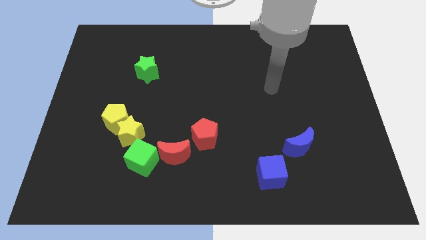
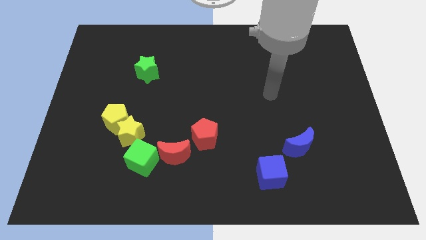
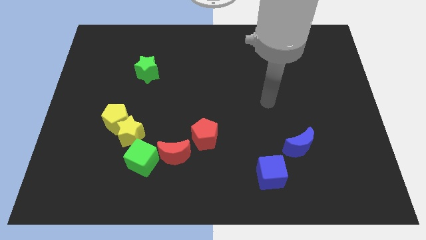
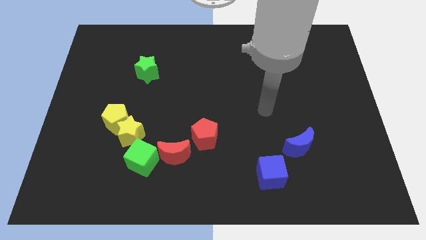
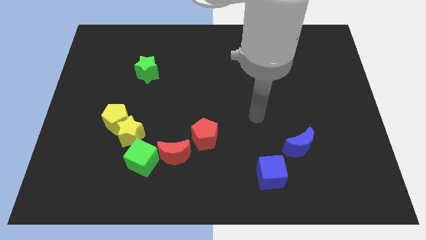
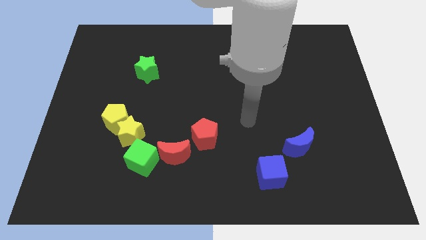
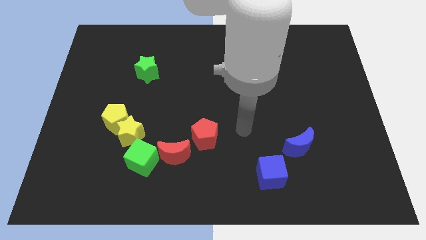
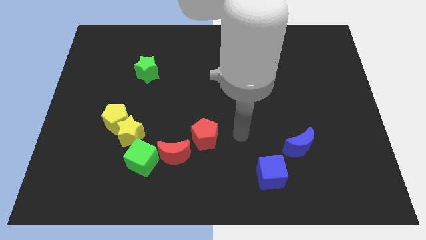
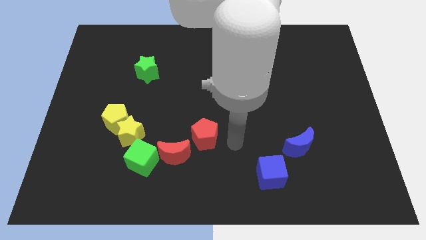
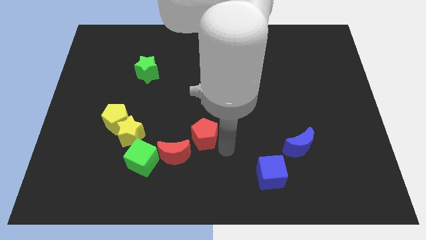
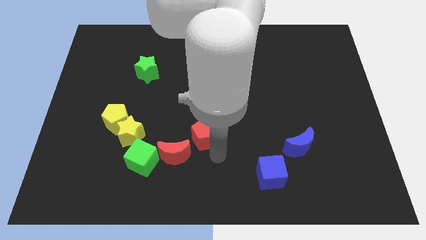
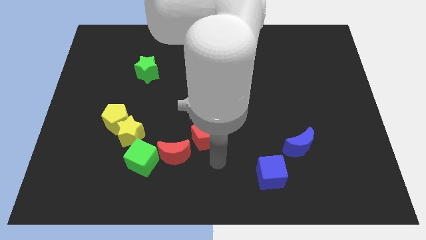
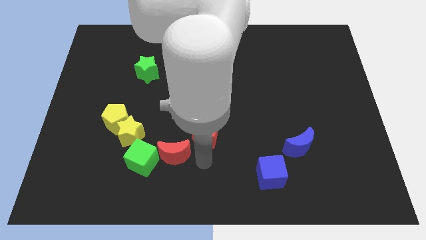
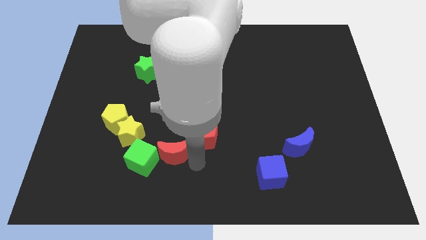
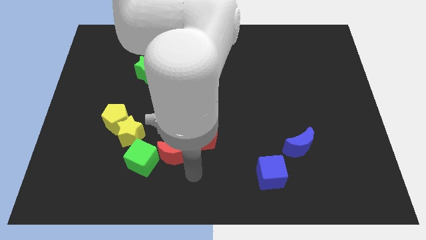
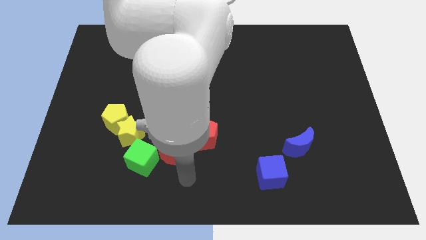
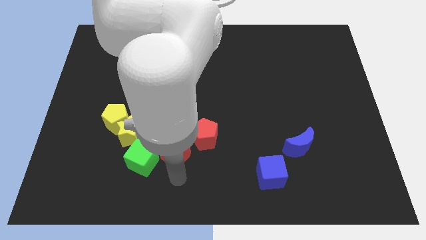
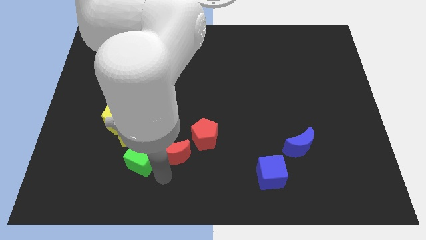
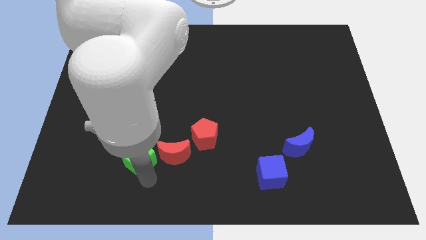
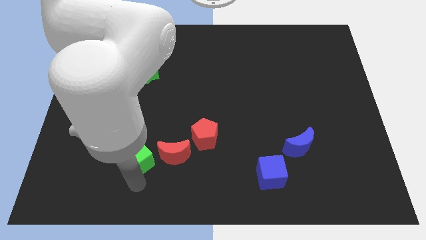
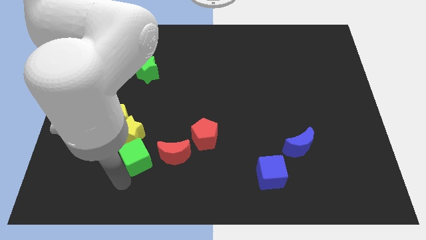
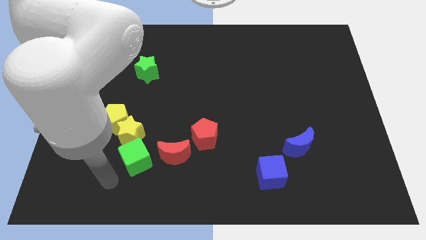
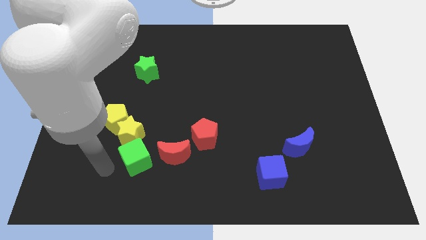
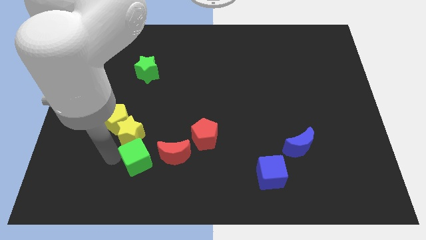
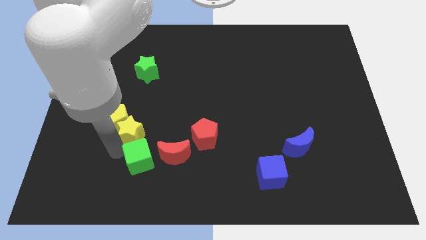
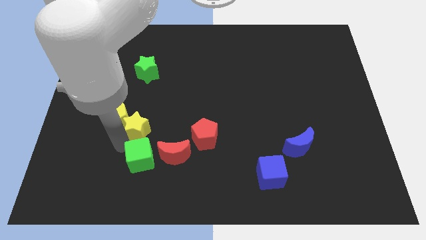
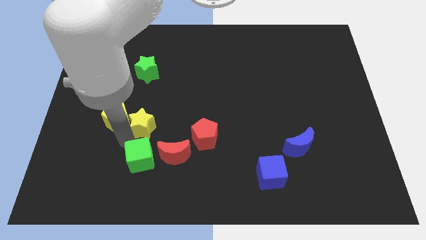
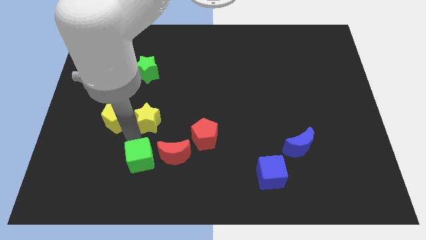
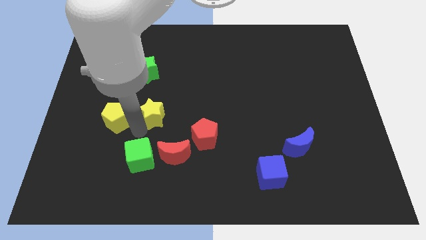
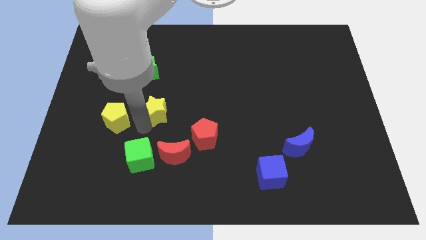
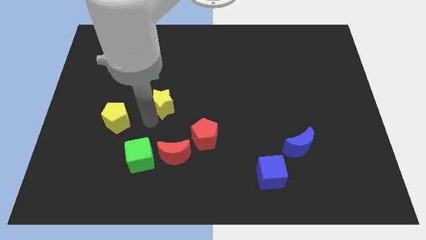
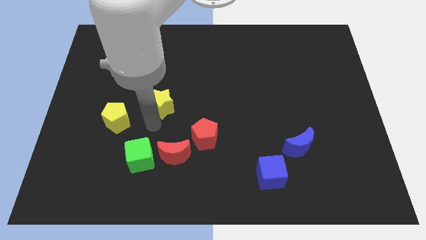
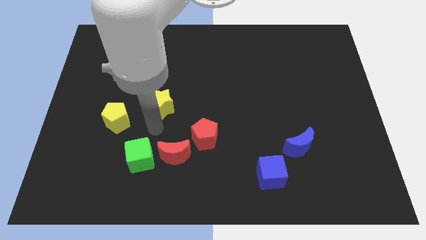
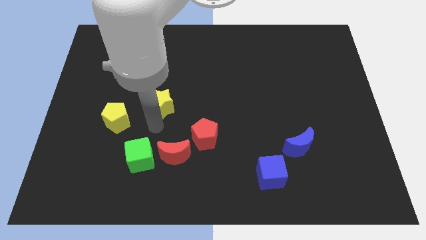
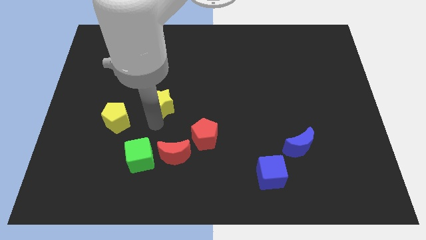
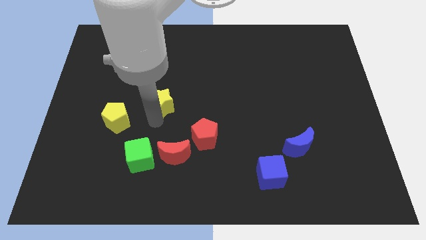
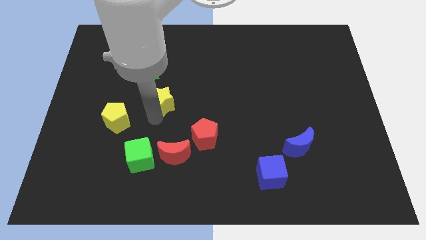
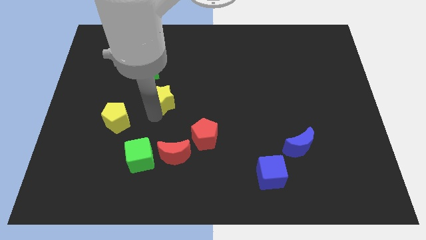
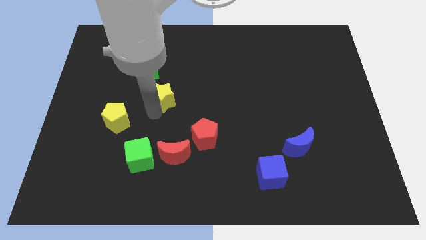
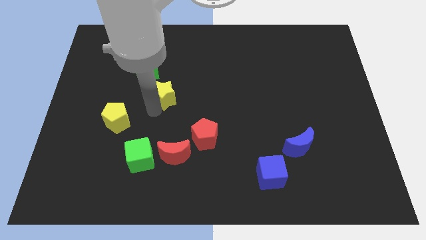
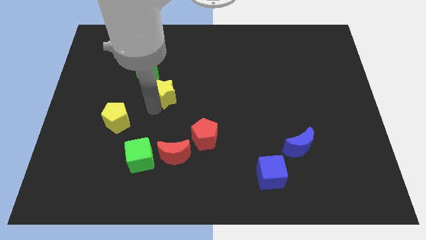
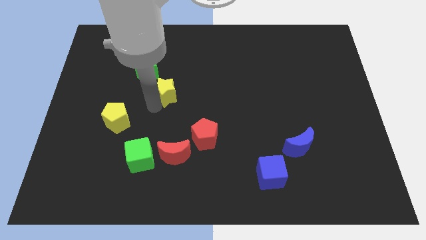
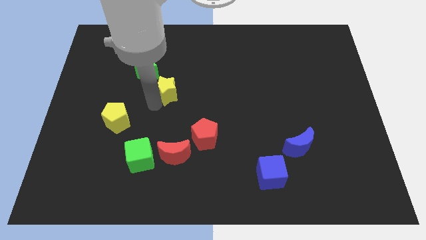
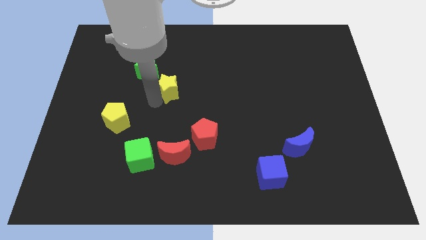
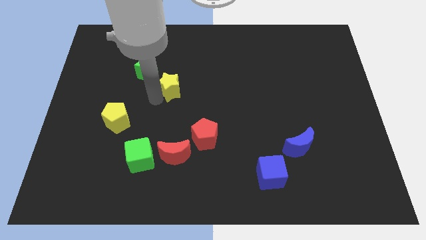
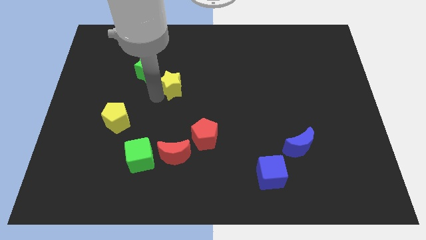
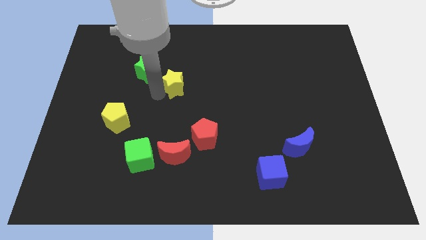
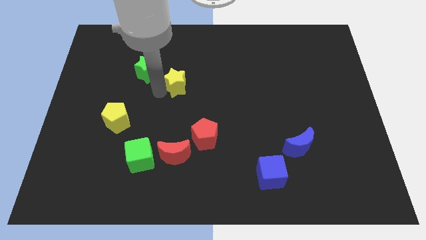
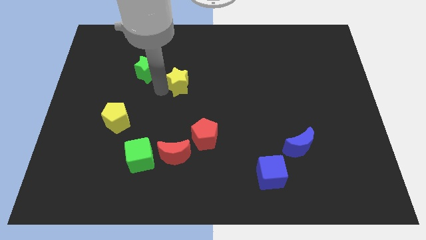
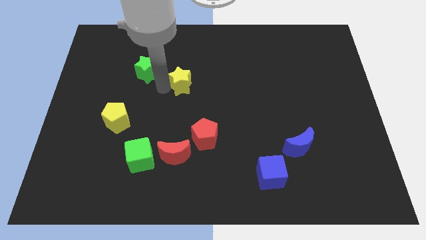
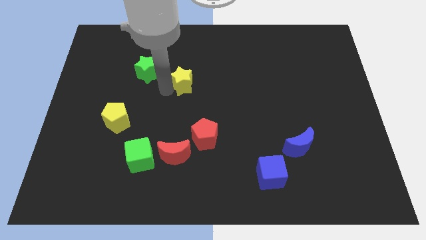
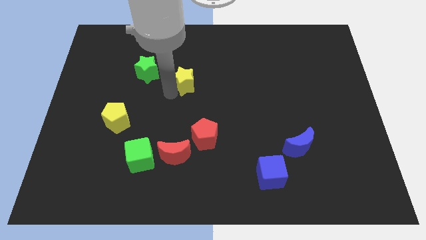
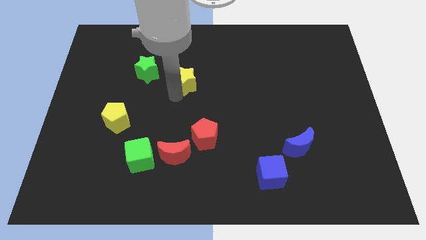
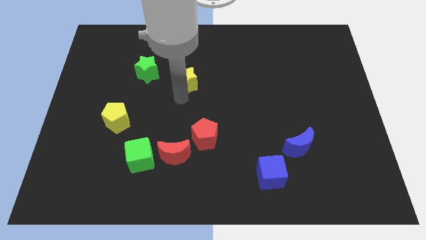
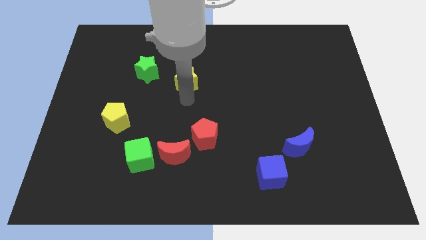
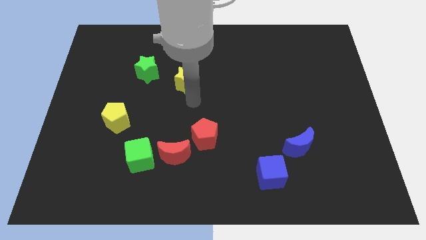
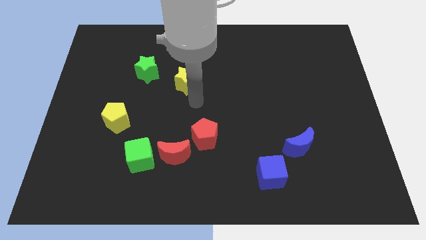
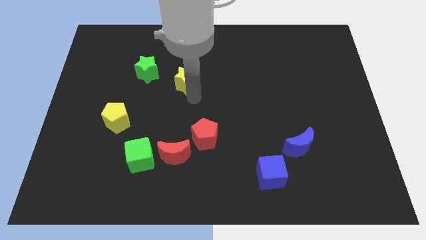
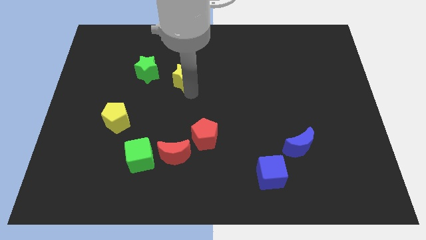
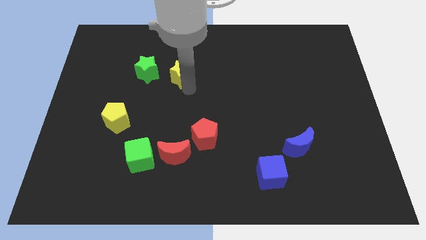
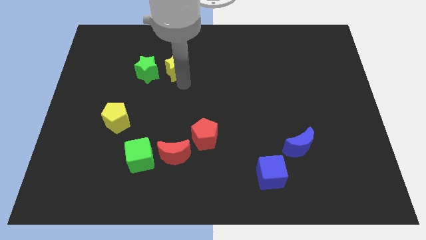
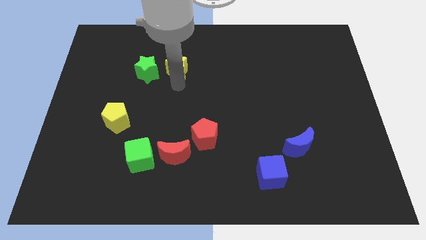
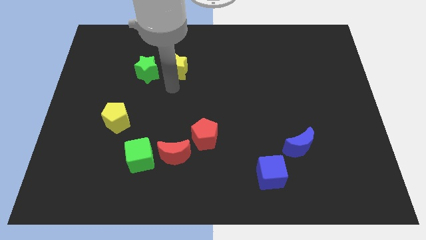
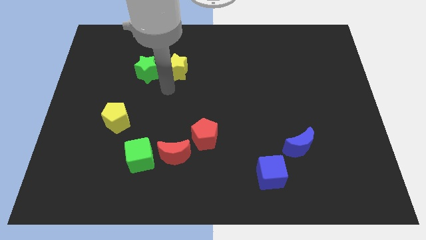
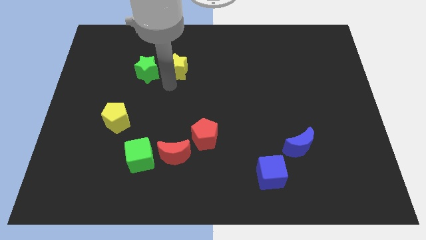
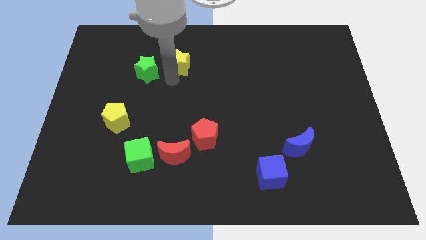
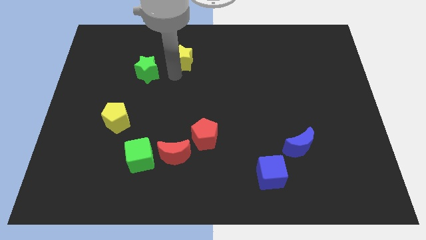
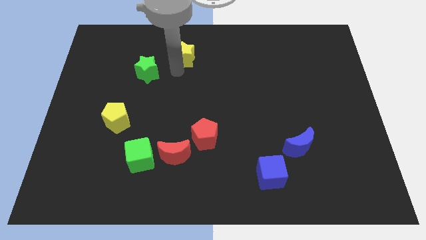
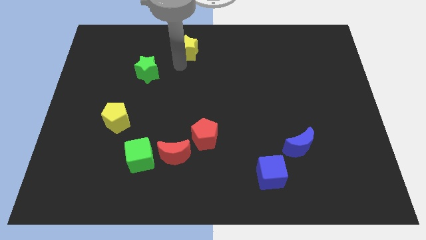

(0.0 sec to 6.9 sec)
slide the yellow star to the top side

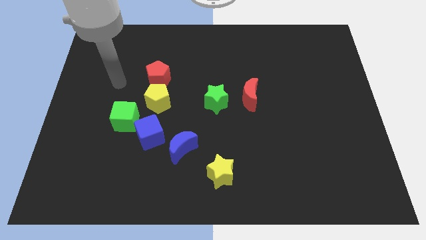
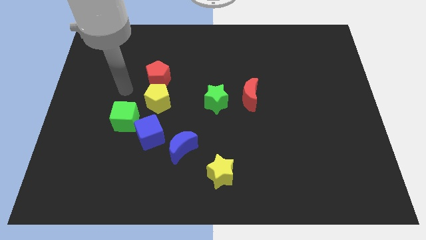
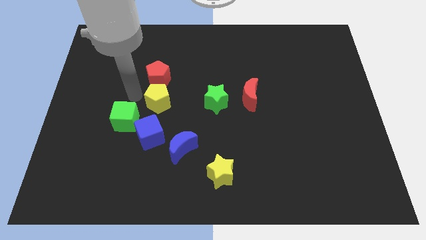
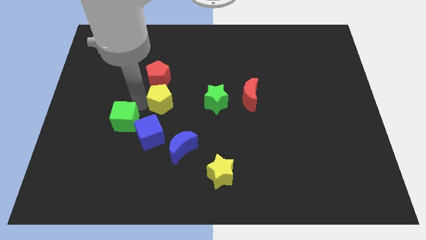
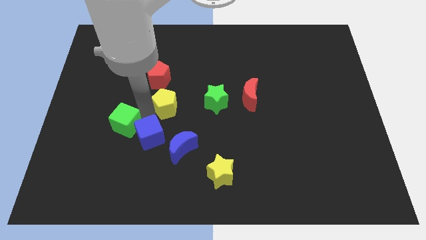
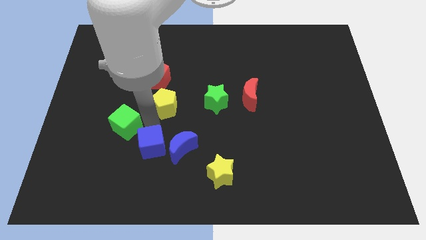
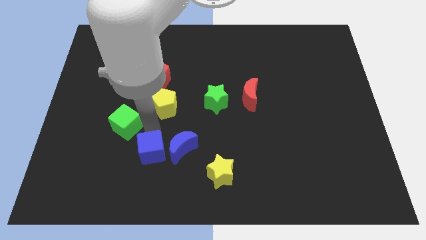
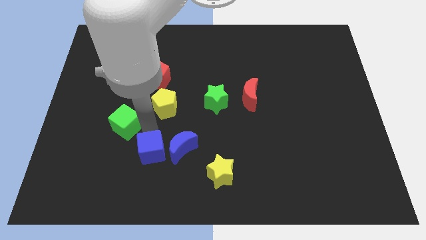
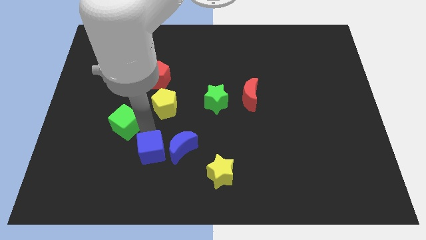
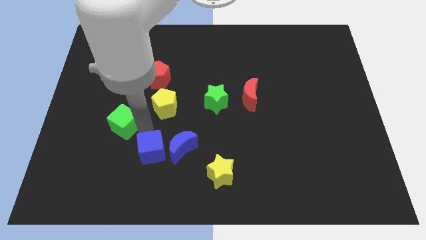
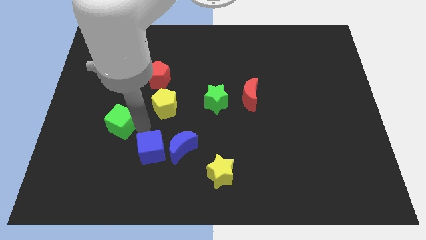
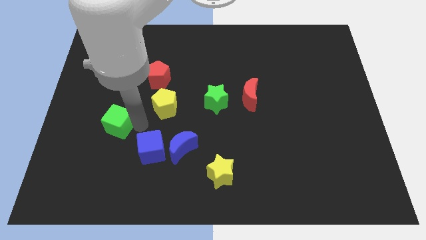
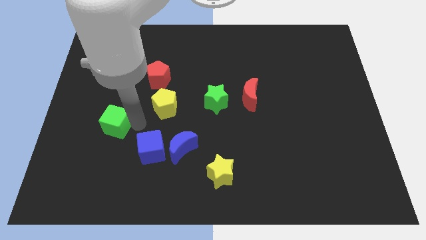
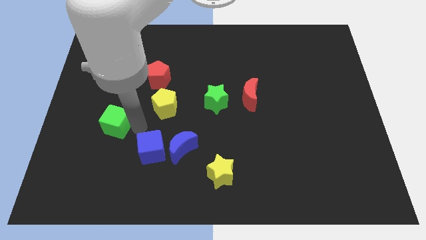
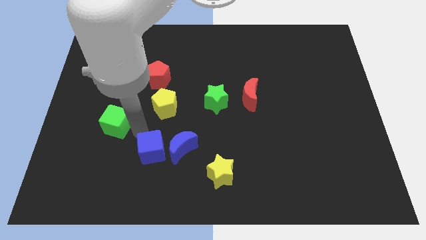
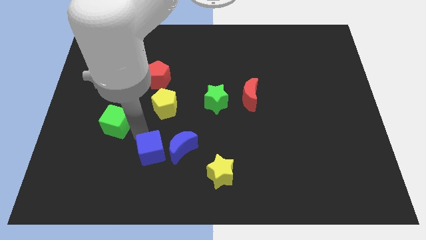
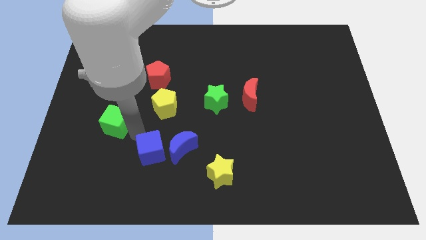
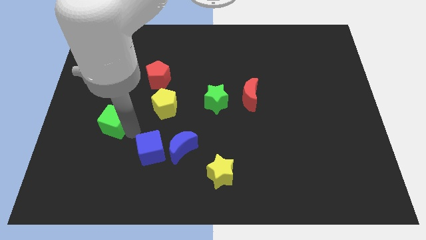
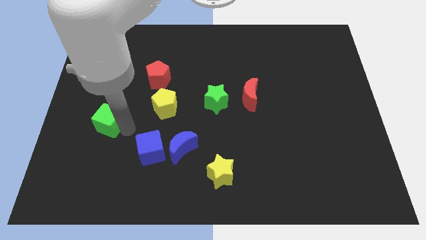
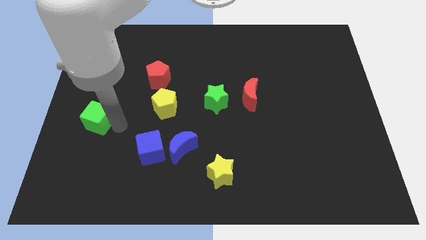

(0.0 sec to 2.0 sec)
push the green cube to the center left
